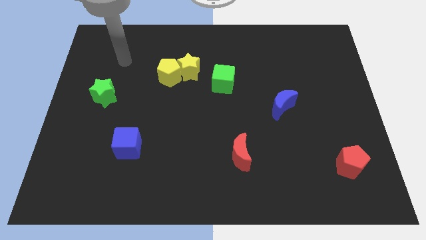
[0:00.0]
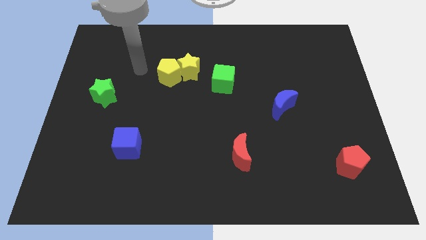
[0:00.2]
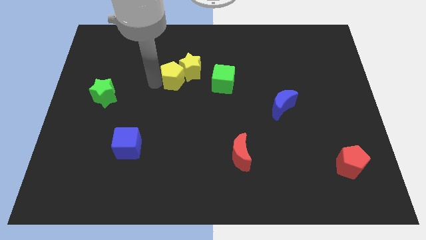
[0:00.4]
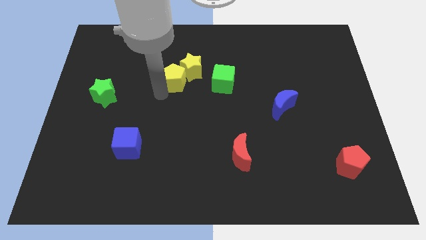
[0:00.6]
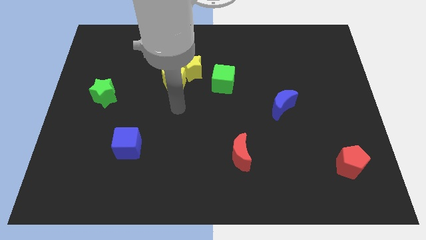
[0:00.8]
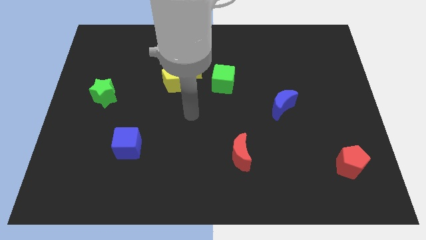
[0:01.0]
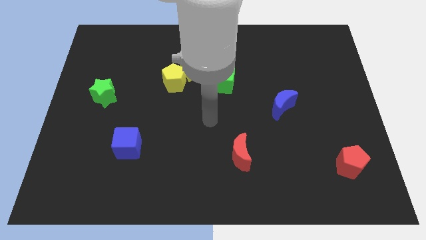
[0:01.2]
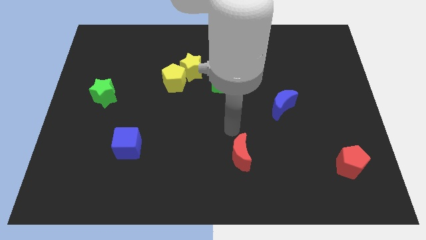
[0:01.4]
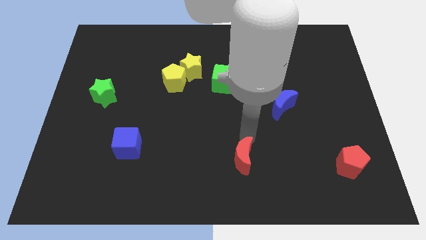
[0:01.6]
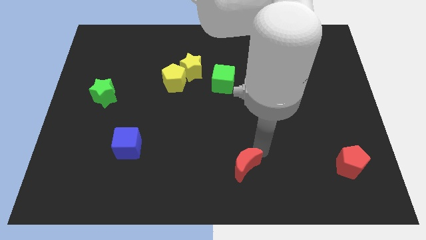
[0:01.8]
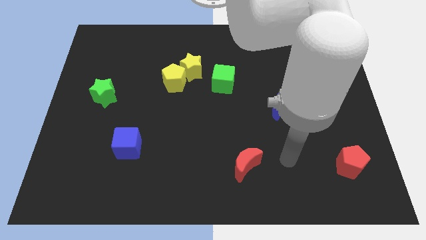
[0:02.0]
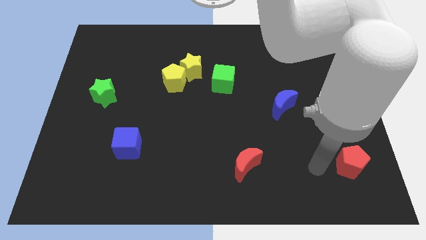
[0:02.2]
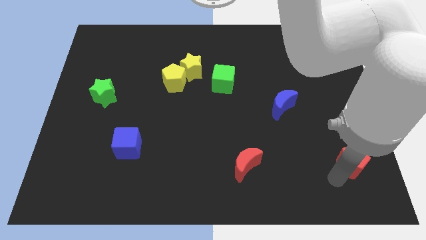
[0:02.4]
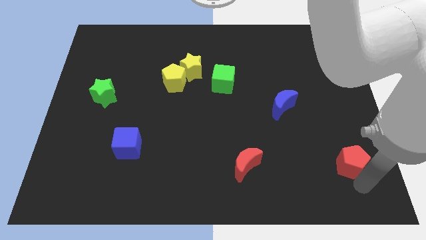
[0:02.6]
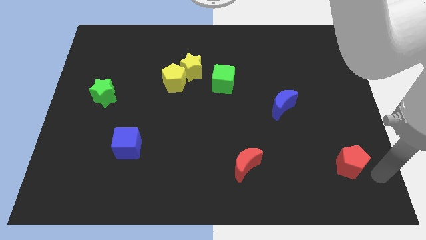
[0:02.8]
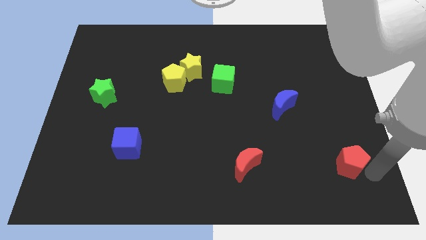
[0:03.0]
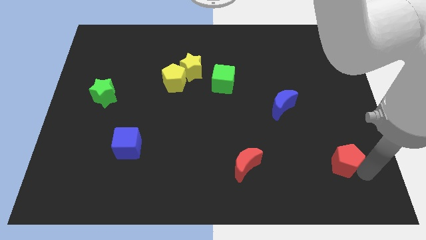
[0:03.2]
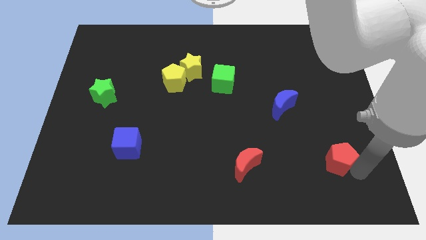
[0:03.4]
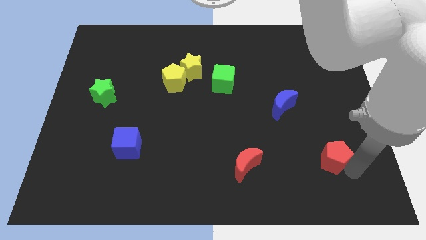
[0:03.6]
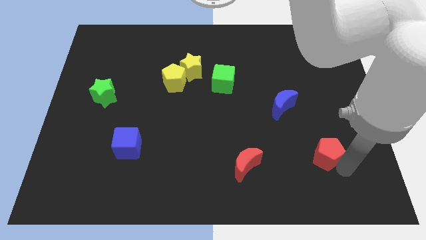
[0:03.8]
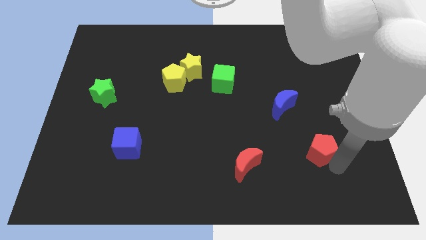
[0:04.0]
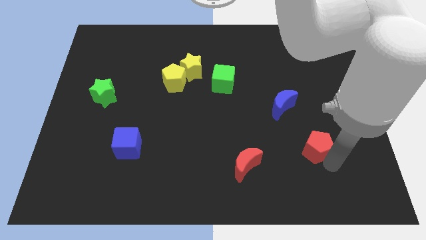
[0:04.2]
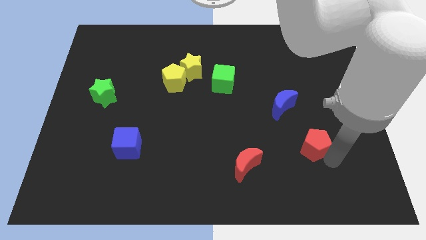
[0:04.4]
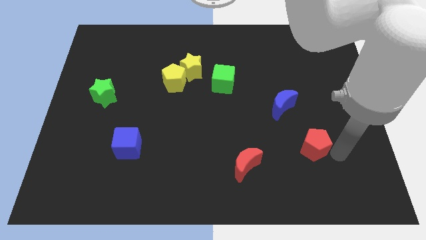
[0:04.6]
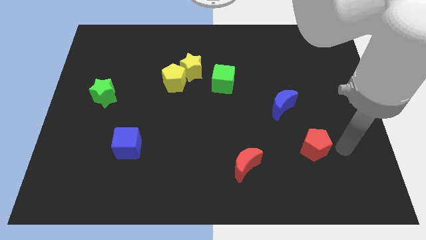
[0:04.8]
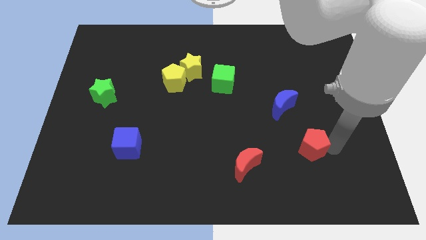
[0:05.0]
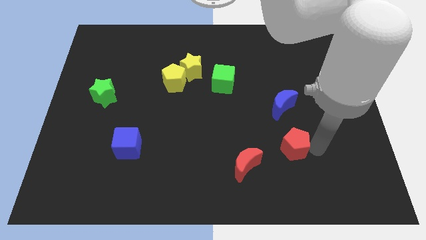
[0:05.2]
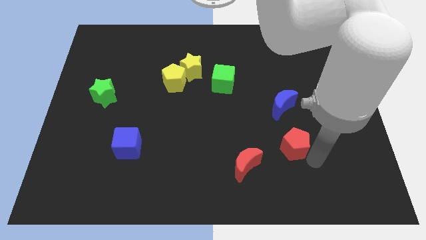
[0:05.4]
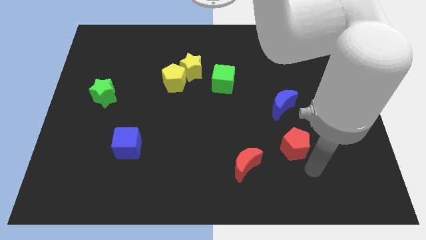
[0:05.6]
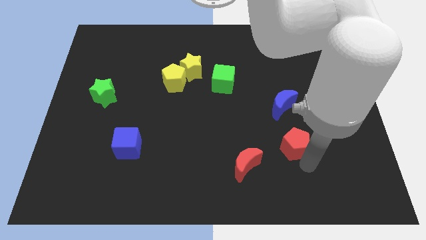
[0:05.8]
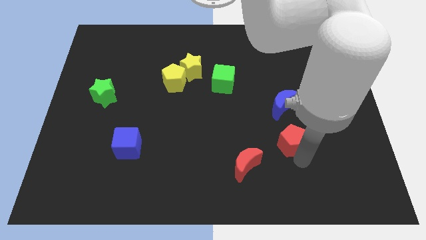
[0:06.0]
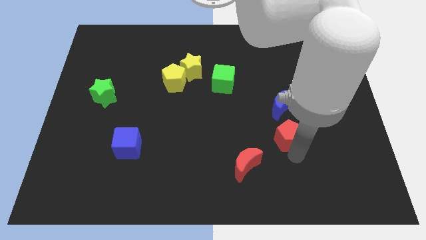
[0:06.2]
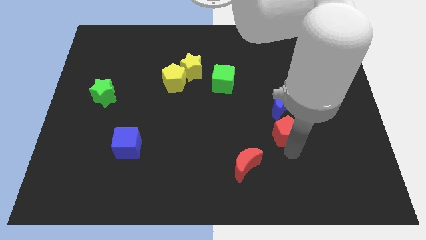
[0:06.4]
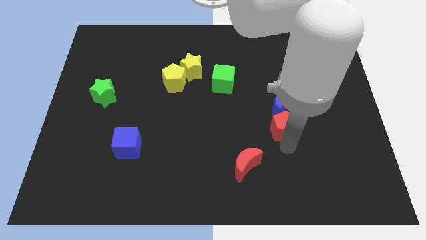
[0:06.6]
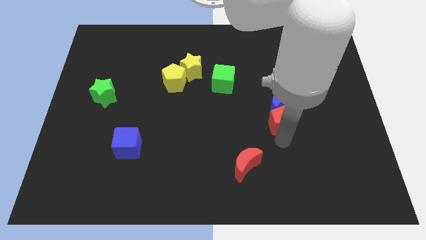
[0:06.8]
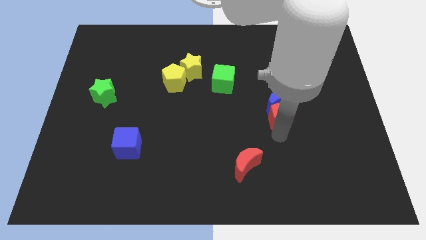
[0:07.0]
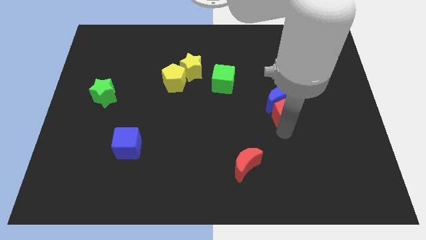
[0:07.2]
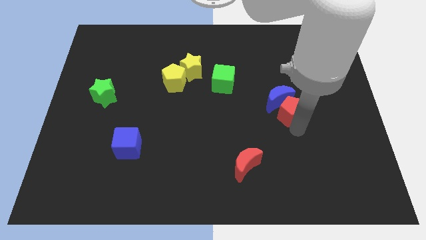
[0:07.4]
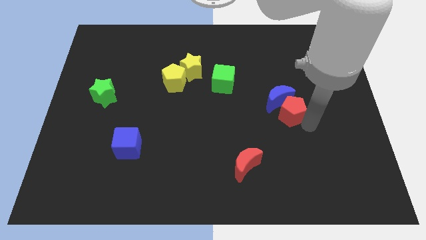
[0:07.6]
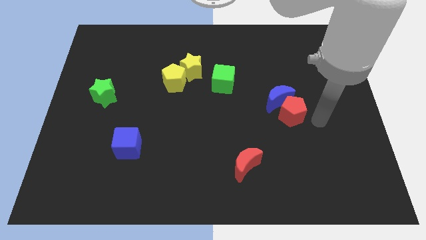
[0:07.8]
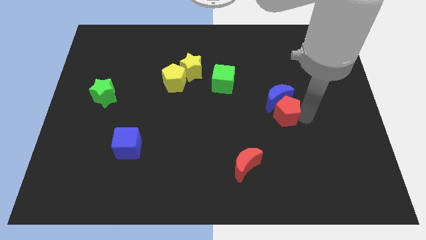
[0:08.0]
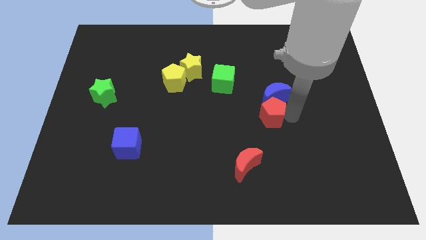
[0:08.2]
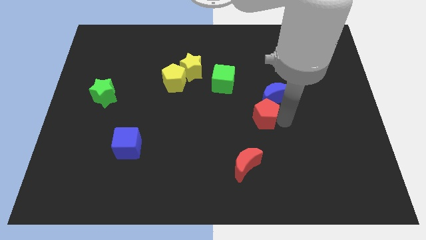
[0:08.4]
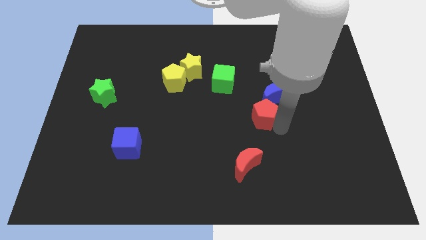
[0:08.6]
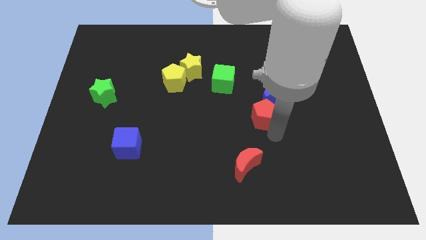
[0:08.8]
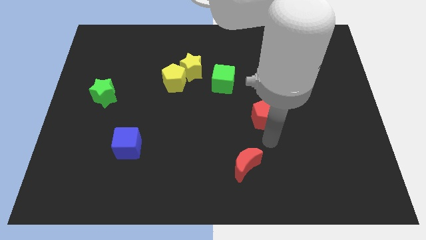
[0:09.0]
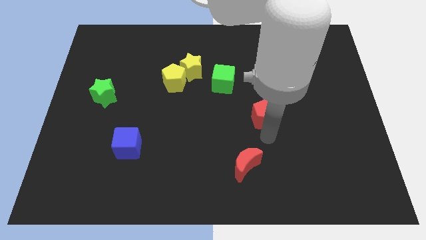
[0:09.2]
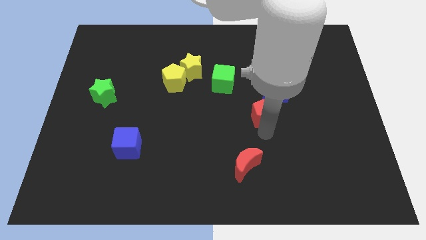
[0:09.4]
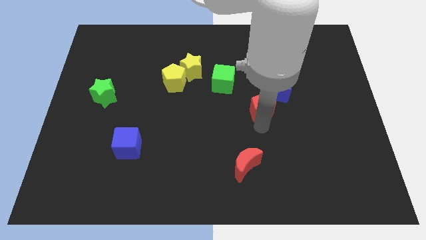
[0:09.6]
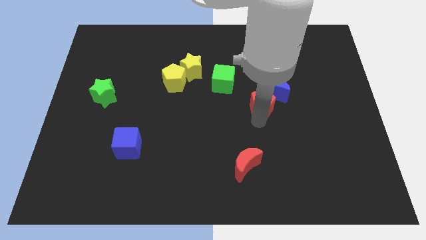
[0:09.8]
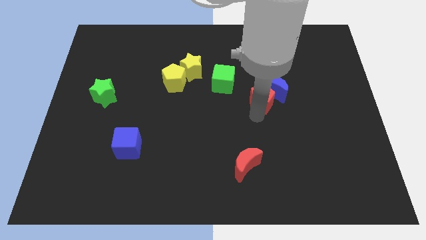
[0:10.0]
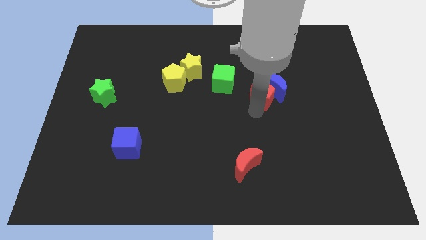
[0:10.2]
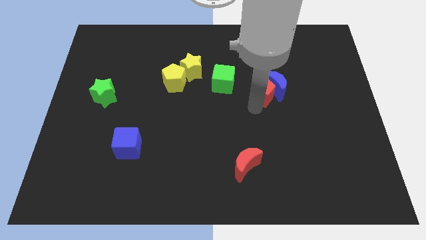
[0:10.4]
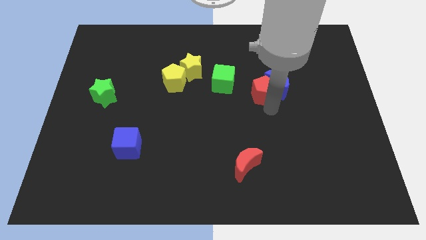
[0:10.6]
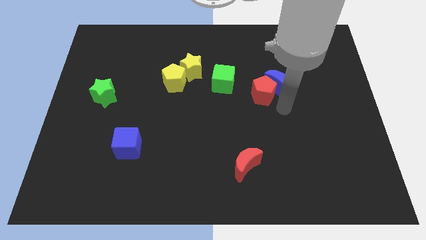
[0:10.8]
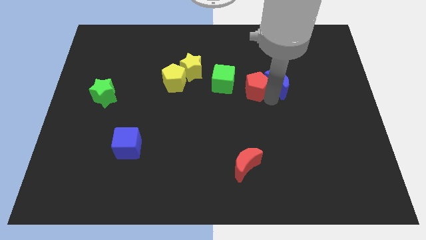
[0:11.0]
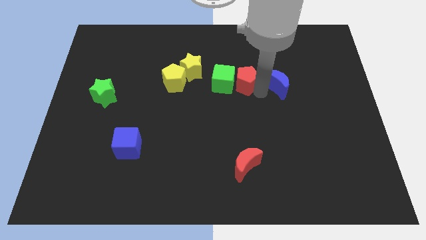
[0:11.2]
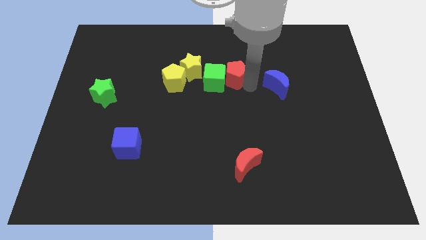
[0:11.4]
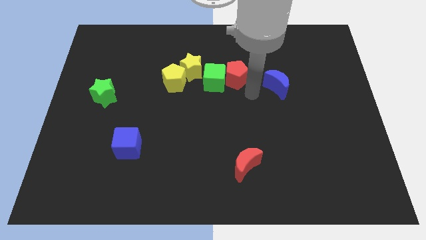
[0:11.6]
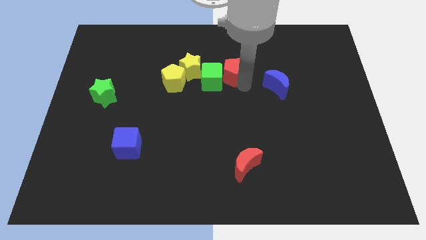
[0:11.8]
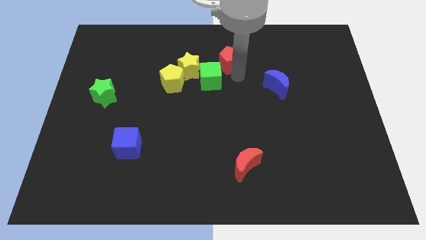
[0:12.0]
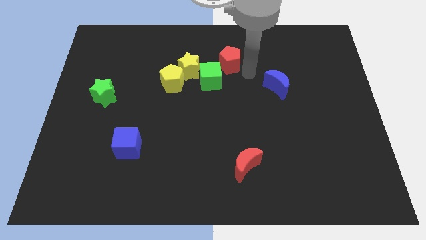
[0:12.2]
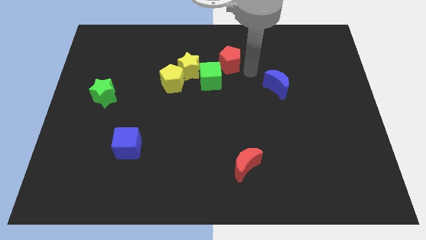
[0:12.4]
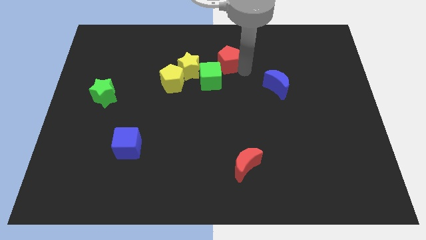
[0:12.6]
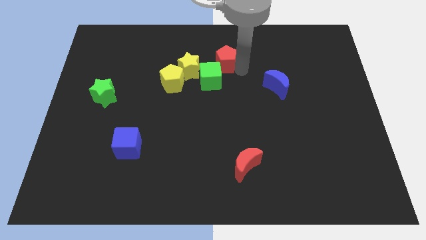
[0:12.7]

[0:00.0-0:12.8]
push the red pentagon to the top right of the yellow star

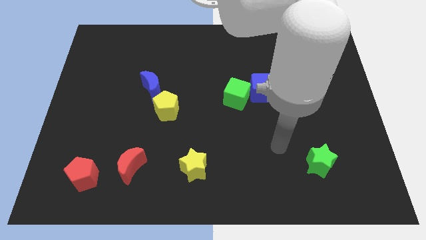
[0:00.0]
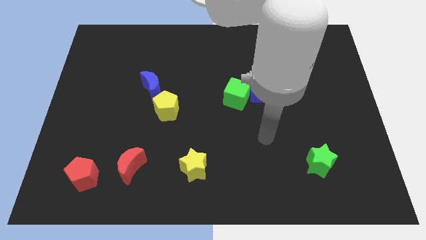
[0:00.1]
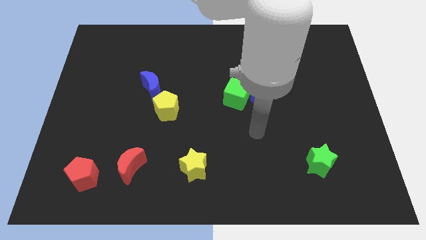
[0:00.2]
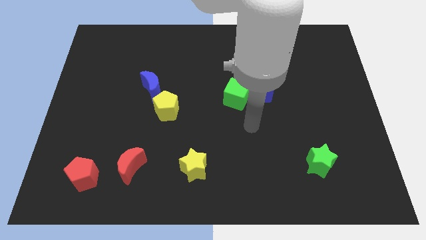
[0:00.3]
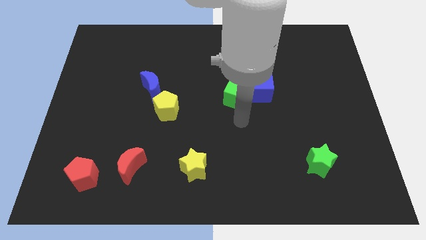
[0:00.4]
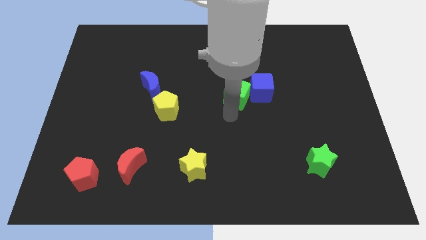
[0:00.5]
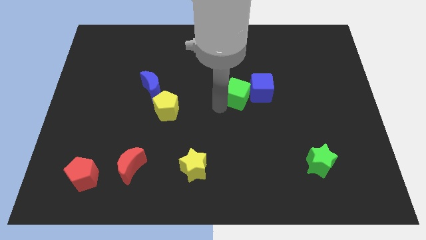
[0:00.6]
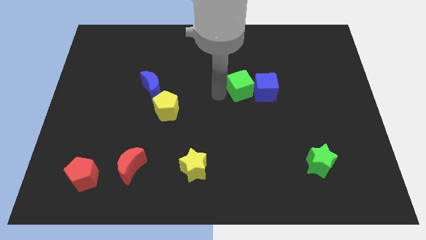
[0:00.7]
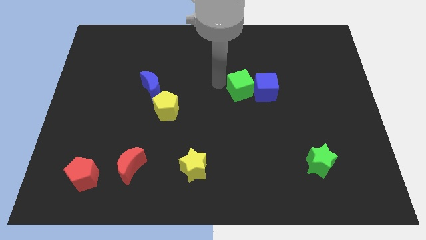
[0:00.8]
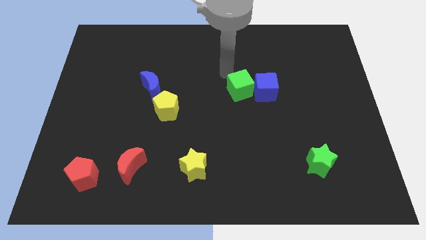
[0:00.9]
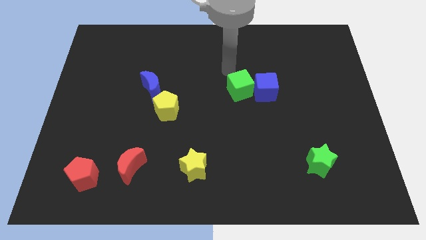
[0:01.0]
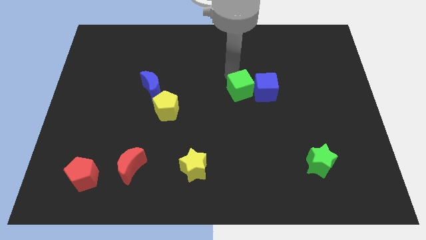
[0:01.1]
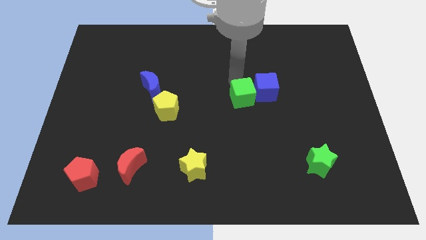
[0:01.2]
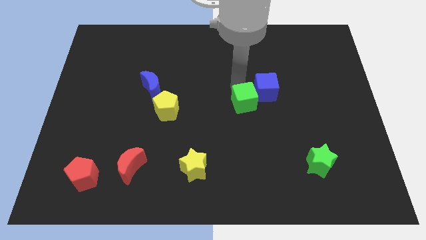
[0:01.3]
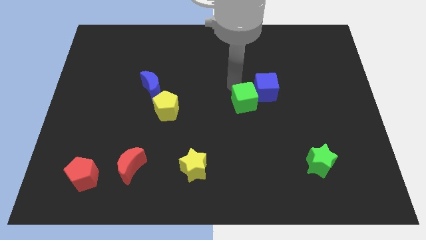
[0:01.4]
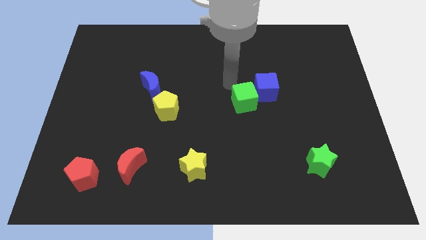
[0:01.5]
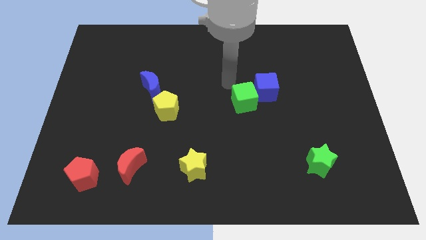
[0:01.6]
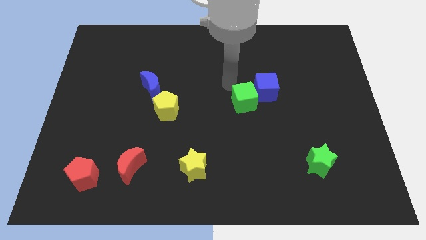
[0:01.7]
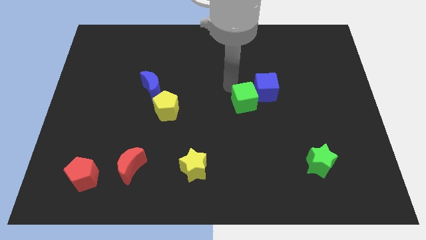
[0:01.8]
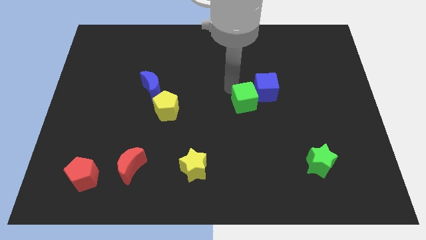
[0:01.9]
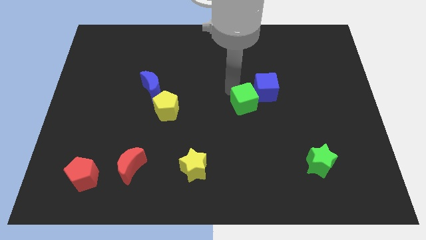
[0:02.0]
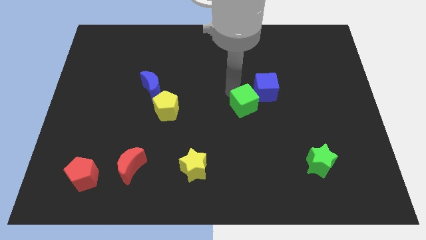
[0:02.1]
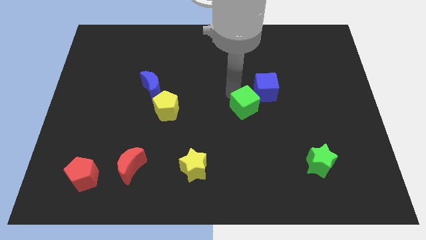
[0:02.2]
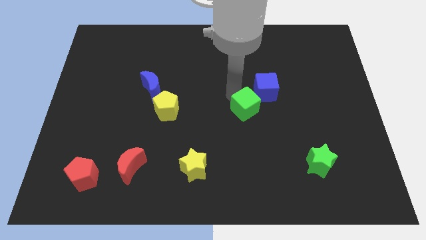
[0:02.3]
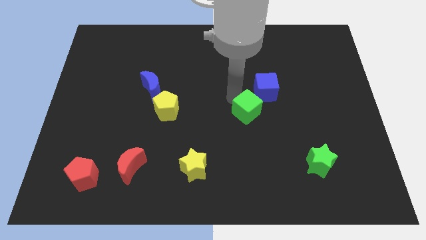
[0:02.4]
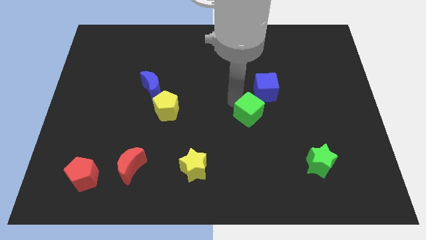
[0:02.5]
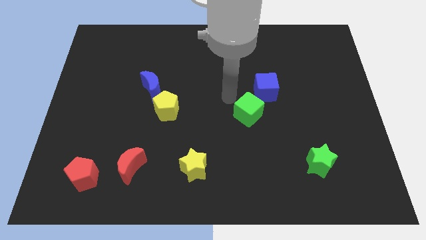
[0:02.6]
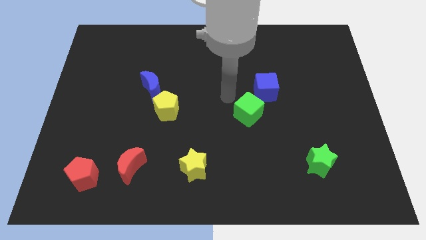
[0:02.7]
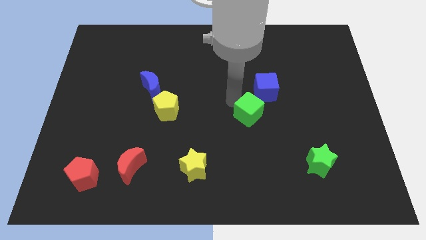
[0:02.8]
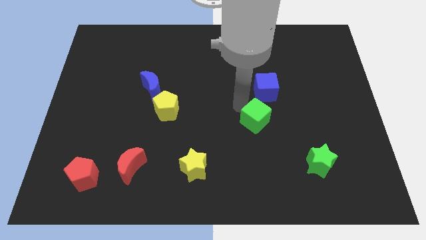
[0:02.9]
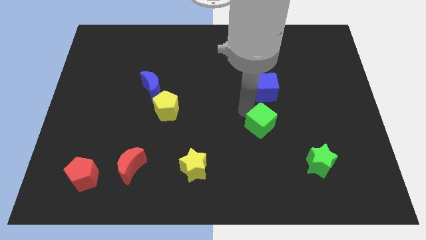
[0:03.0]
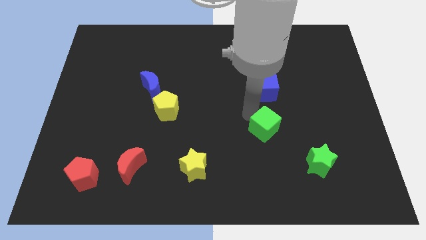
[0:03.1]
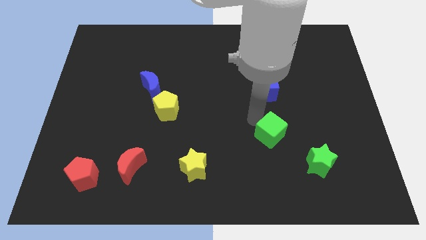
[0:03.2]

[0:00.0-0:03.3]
slide the green cube diagonally up and to the left of the green star
